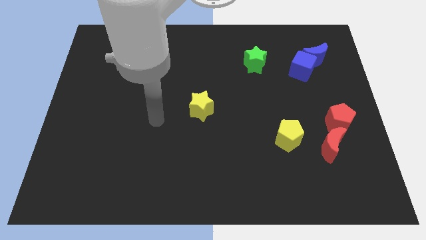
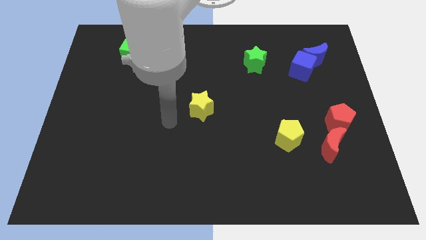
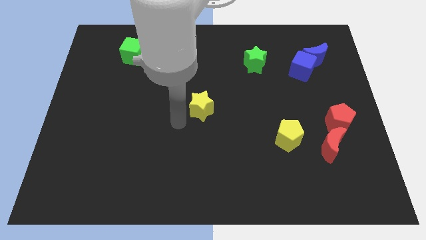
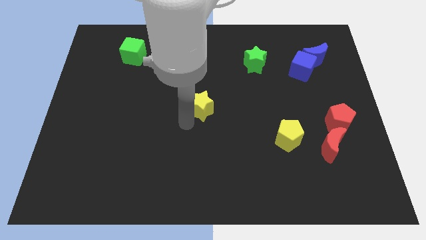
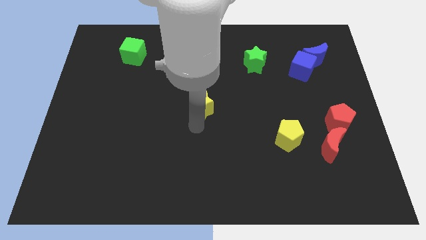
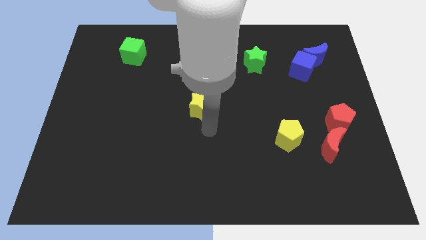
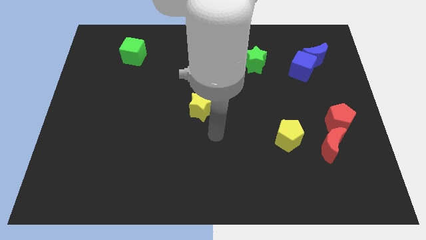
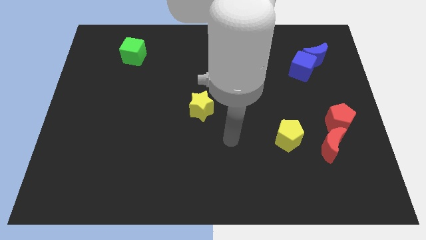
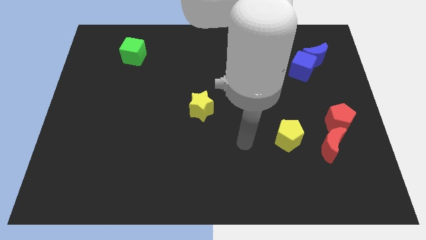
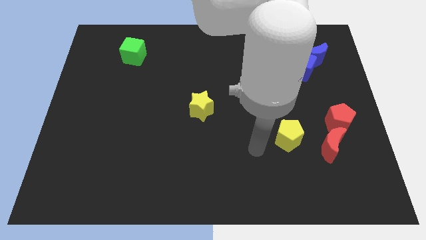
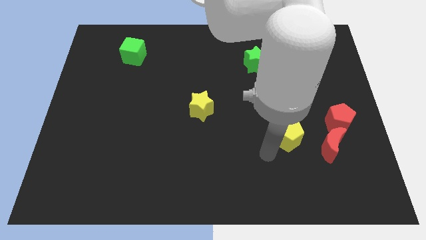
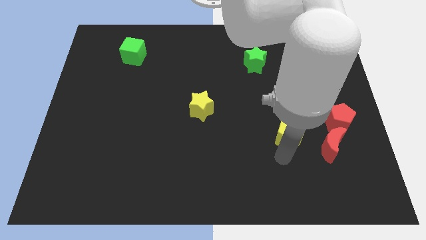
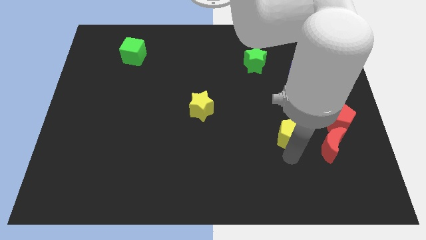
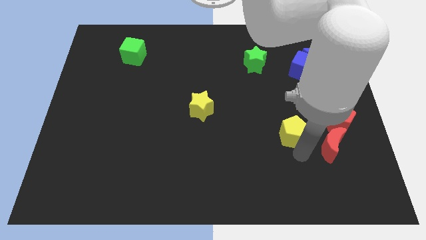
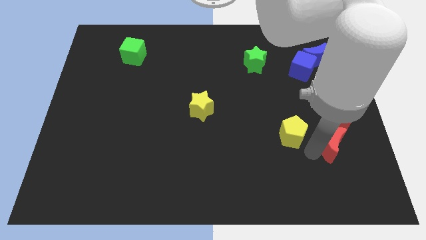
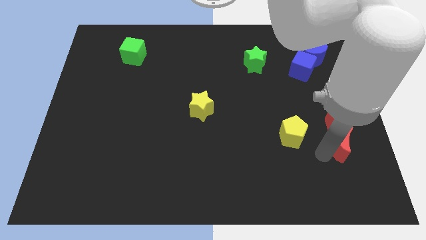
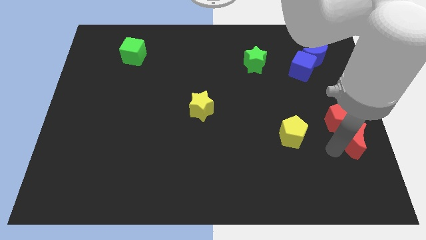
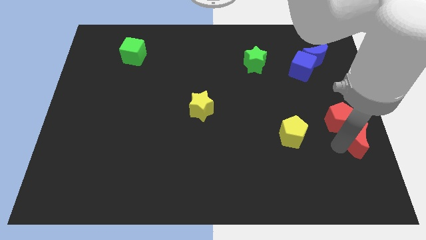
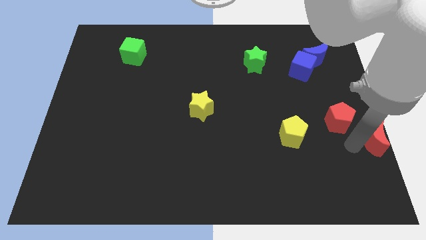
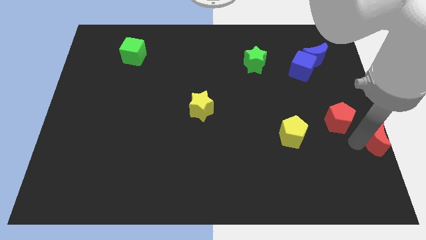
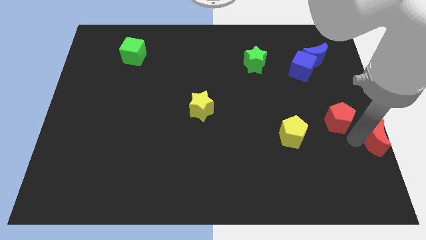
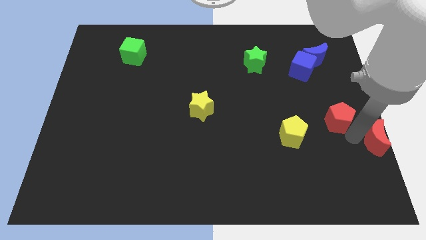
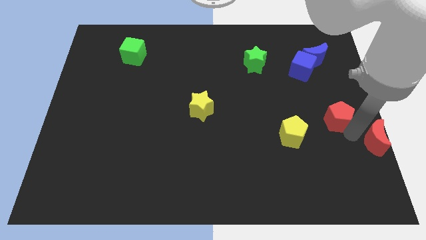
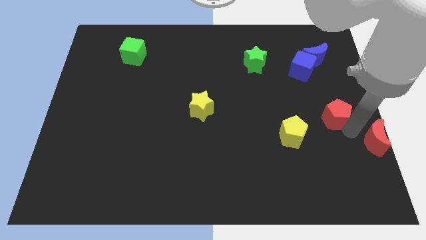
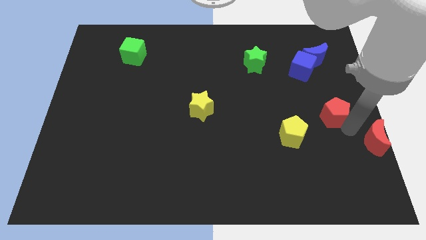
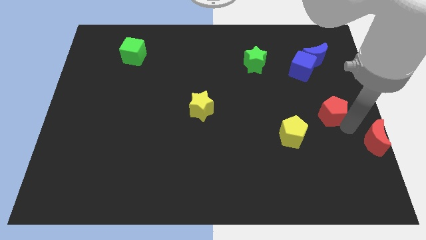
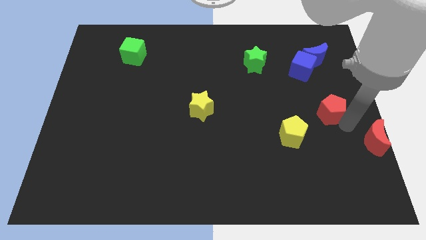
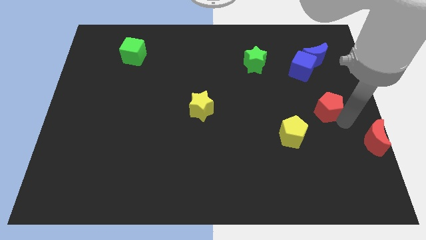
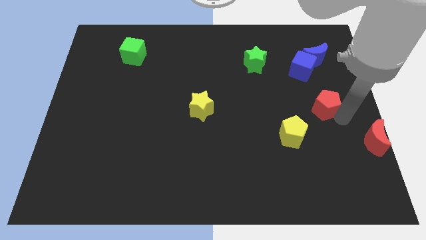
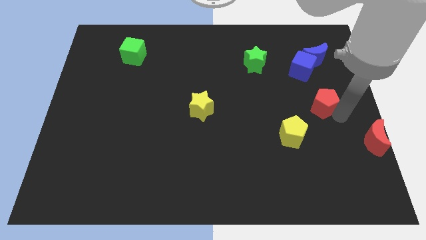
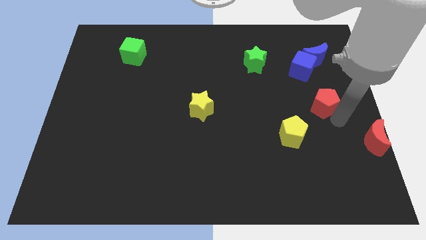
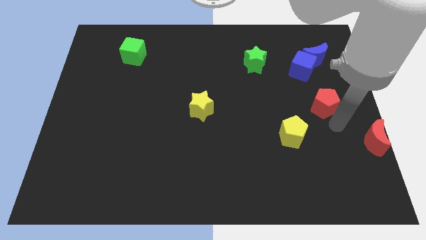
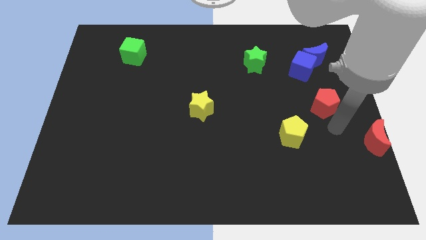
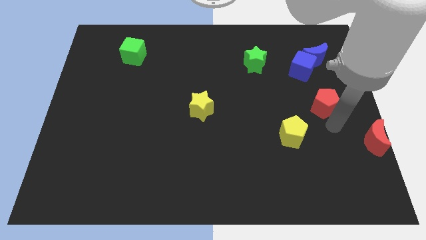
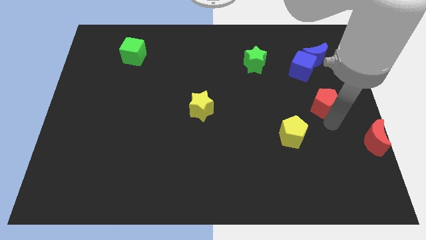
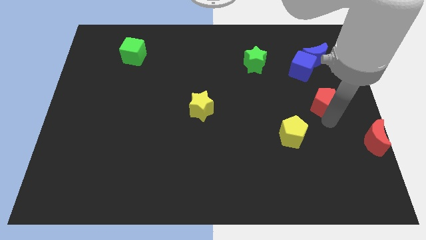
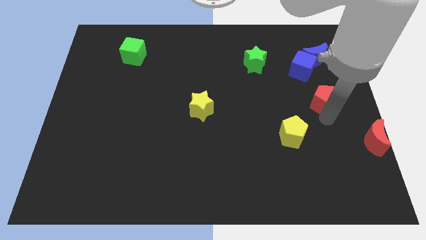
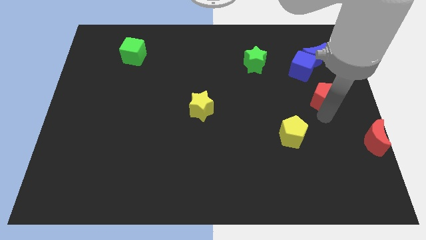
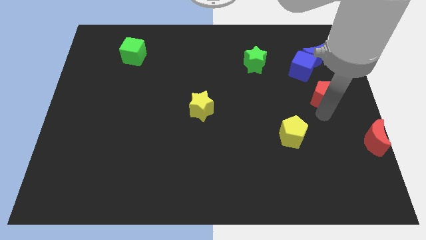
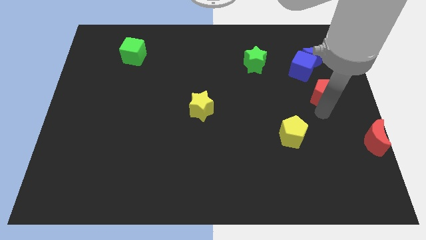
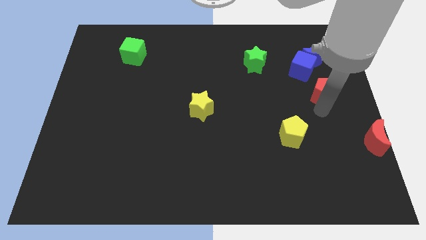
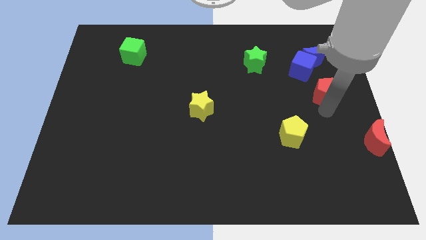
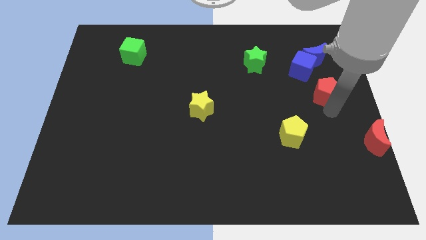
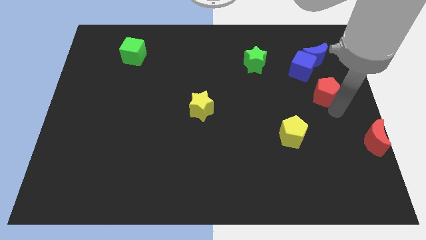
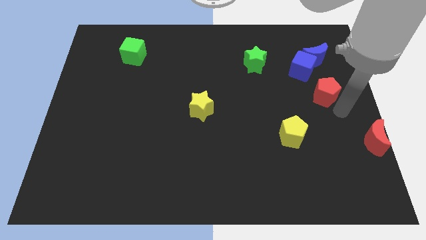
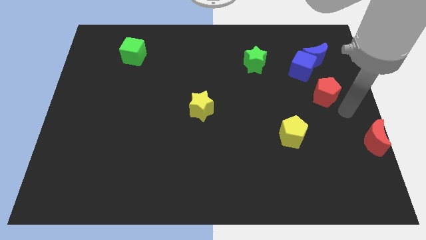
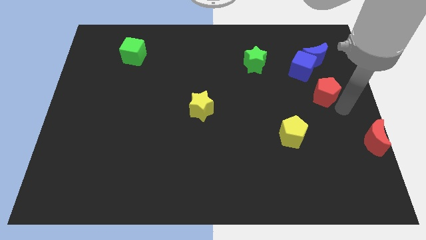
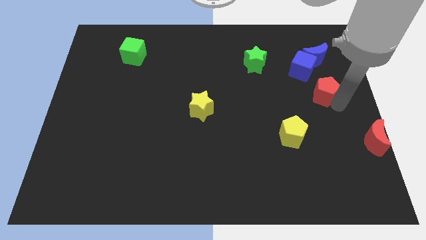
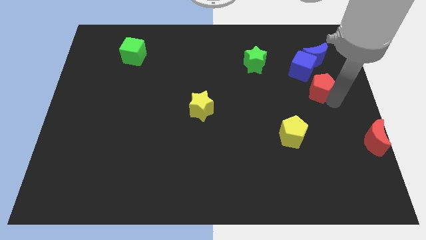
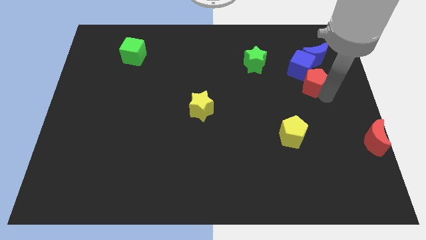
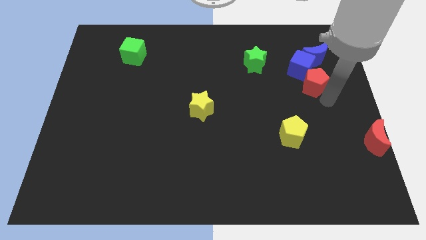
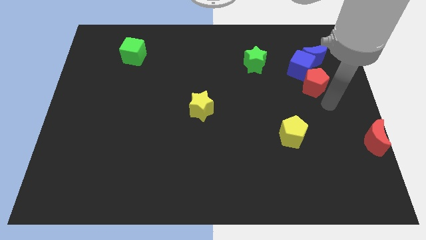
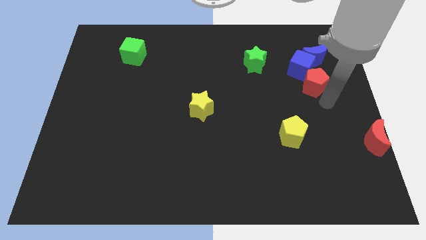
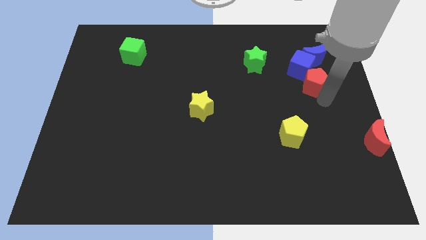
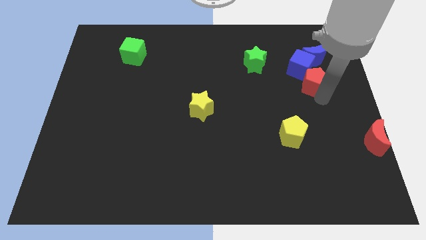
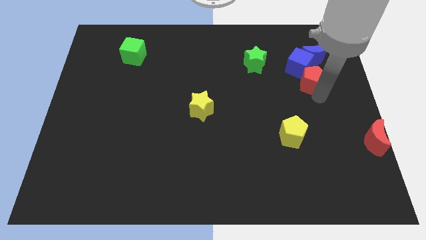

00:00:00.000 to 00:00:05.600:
put the red pentagon towards the blue cube

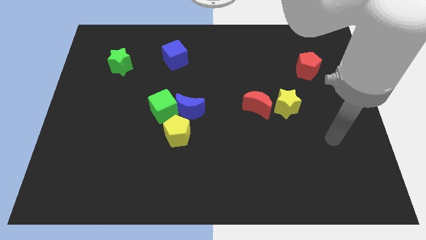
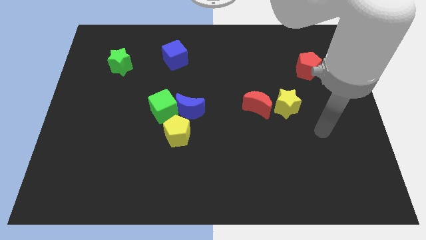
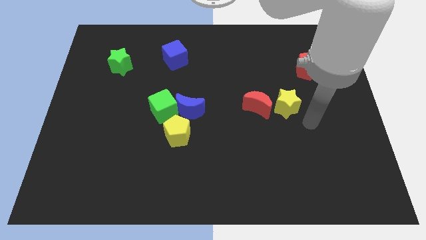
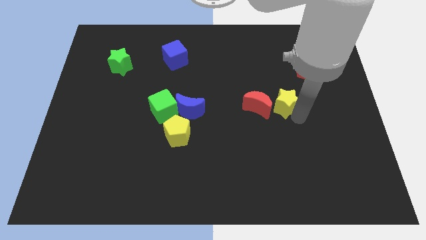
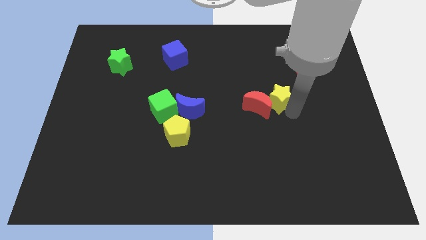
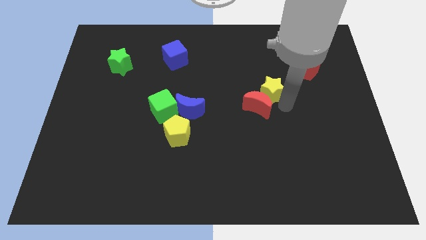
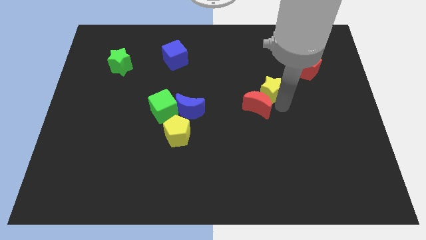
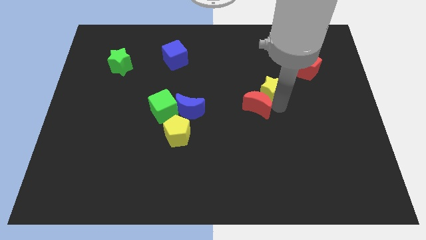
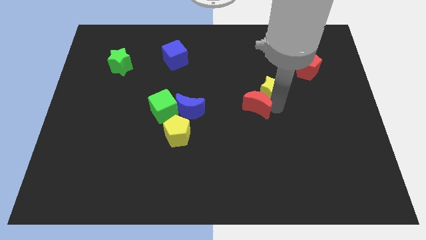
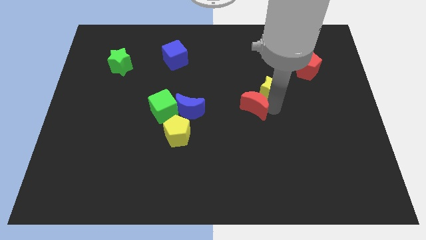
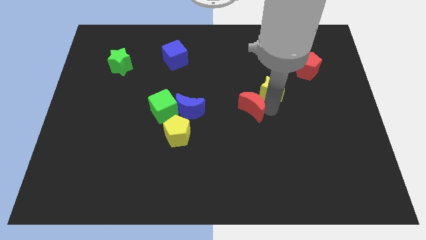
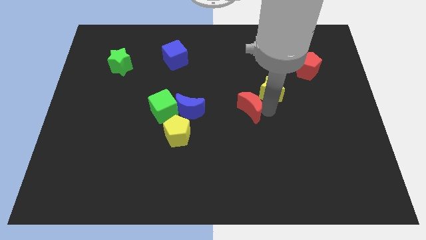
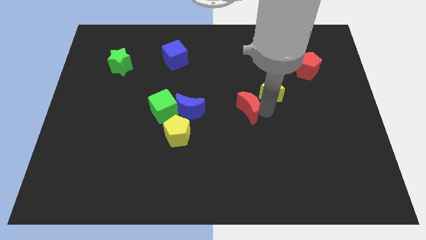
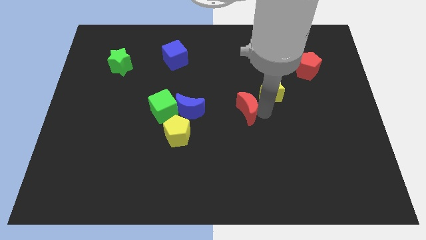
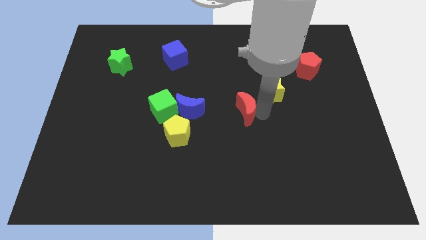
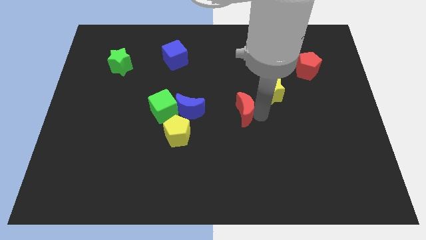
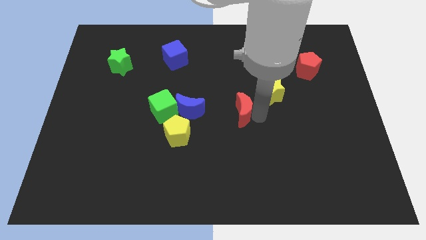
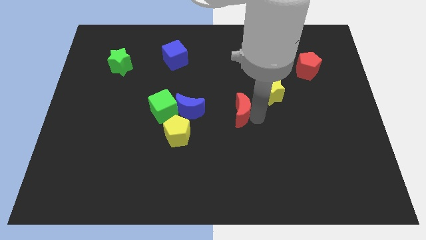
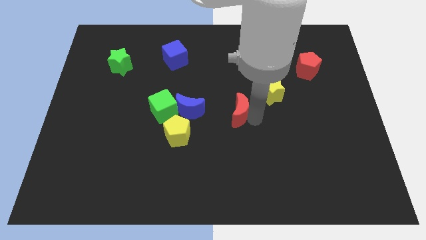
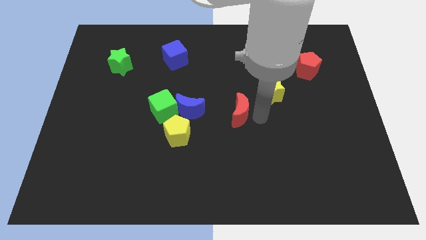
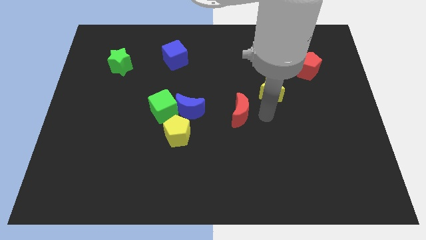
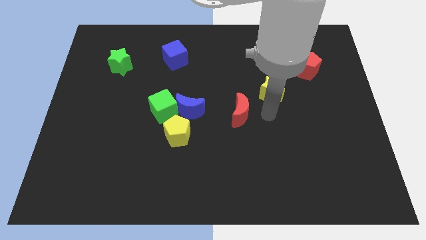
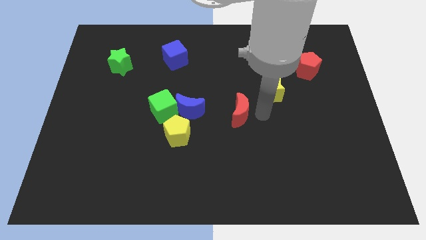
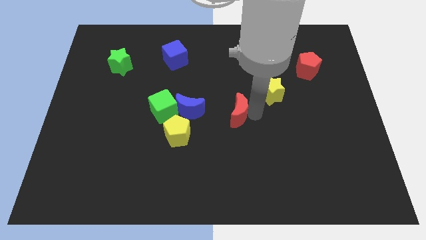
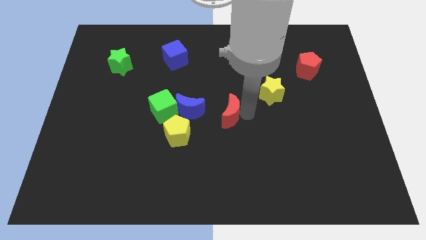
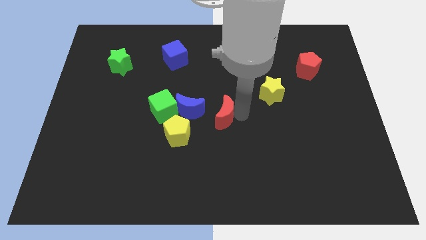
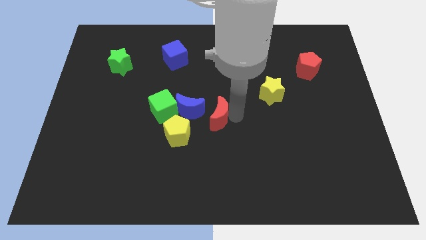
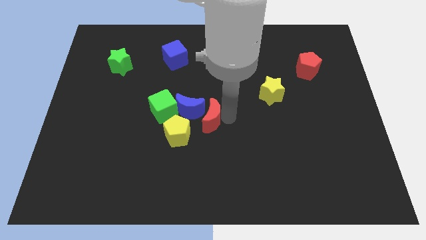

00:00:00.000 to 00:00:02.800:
put the red moon next to the blue moon
